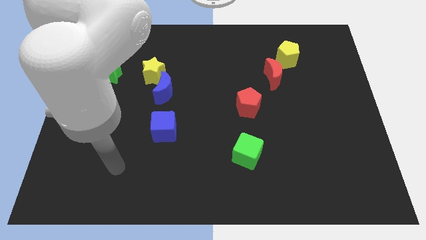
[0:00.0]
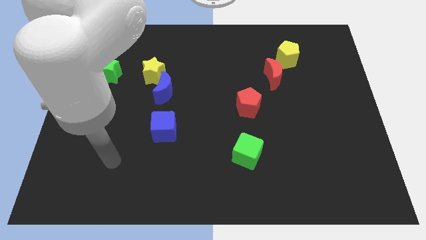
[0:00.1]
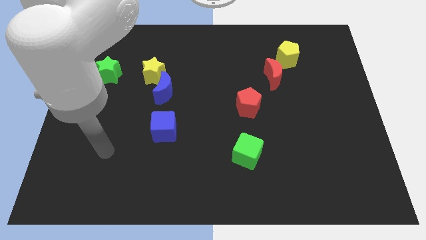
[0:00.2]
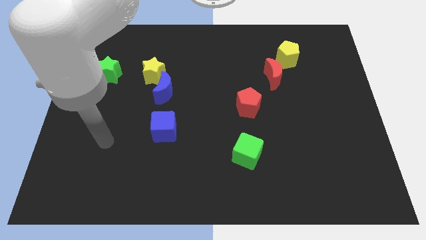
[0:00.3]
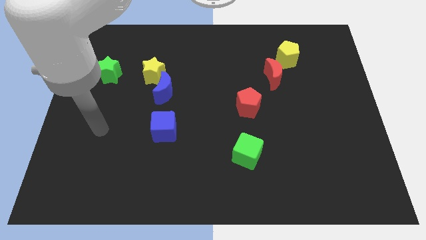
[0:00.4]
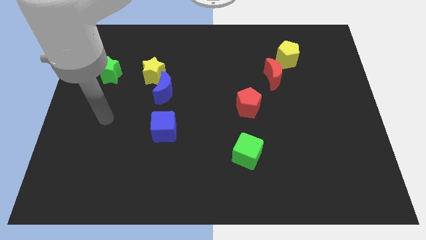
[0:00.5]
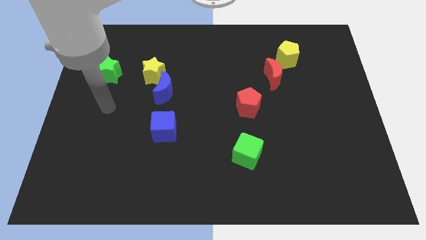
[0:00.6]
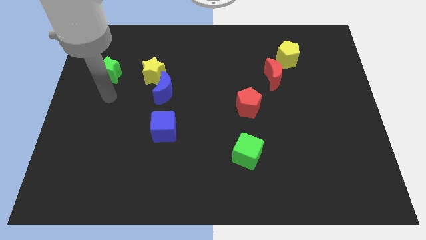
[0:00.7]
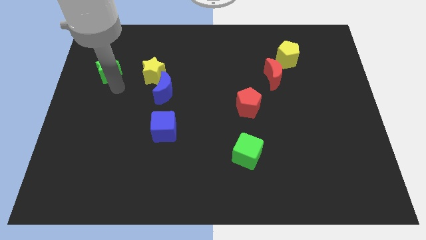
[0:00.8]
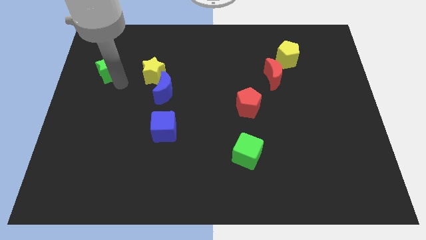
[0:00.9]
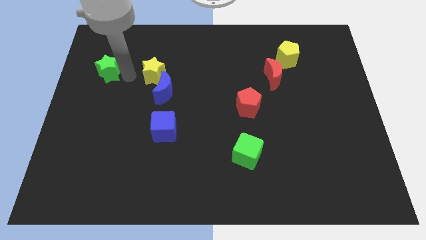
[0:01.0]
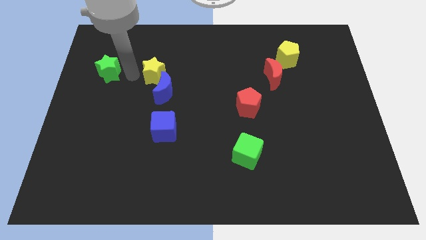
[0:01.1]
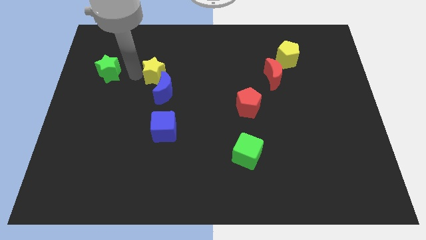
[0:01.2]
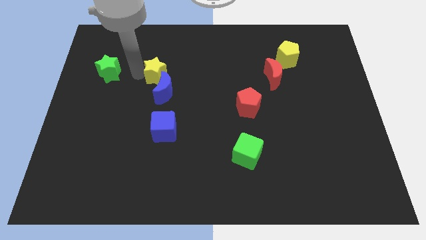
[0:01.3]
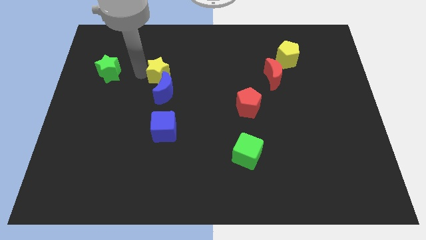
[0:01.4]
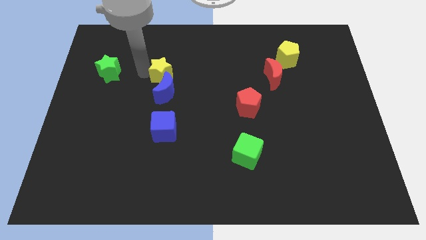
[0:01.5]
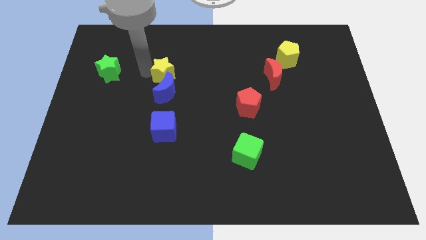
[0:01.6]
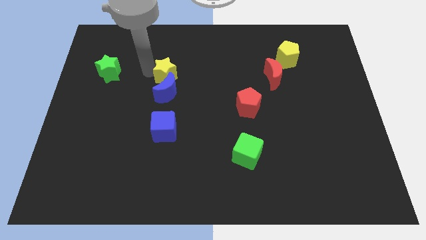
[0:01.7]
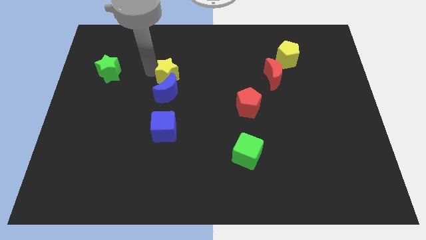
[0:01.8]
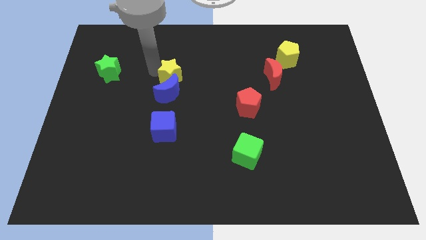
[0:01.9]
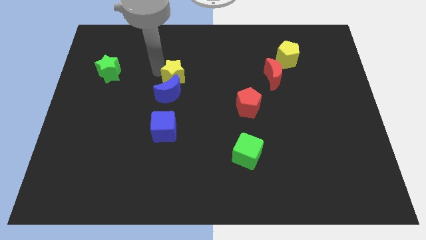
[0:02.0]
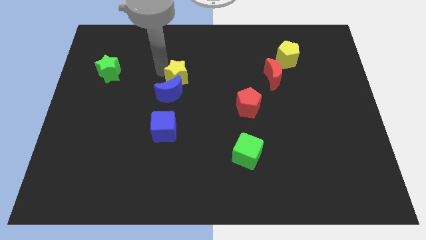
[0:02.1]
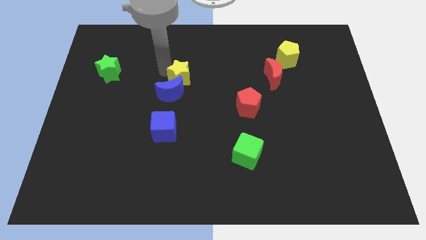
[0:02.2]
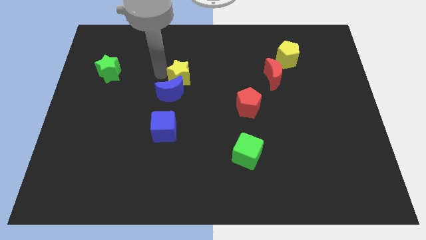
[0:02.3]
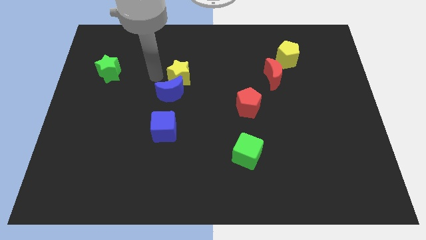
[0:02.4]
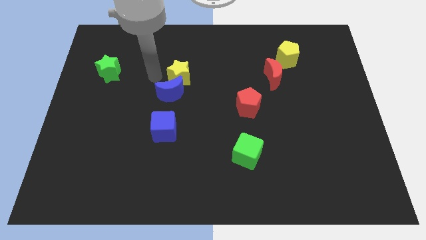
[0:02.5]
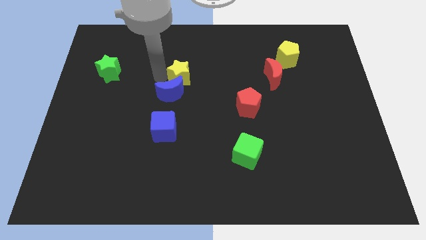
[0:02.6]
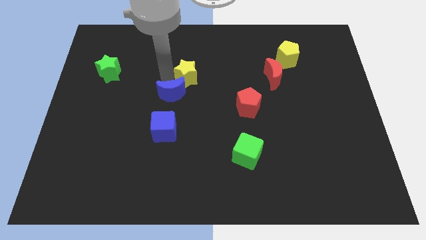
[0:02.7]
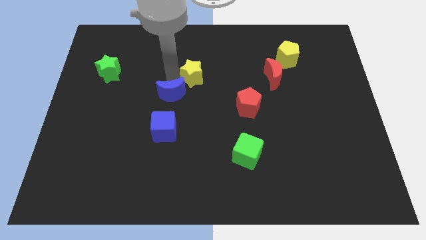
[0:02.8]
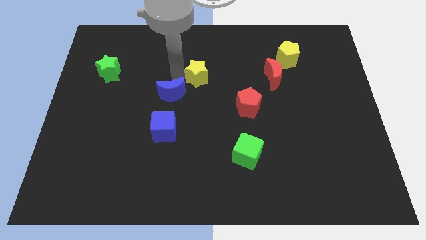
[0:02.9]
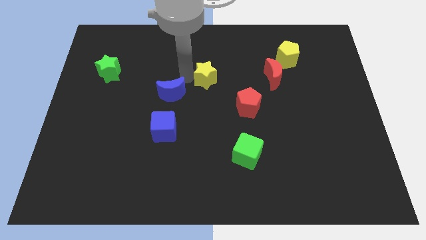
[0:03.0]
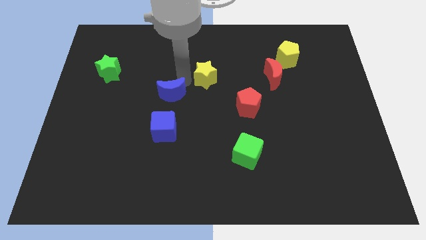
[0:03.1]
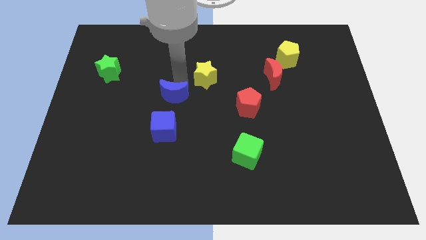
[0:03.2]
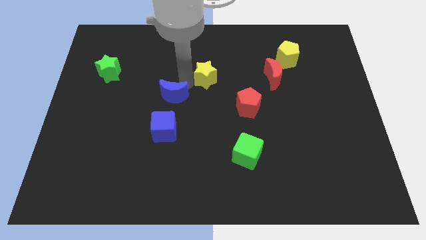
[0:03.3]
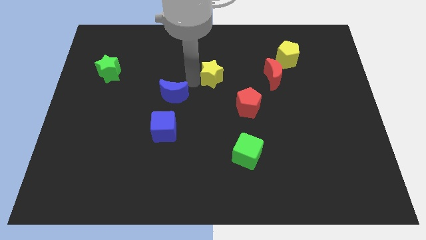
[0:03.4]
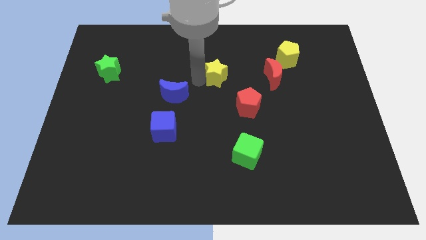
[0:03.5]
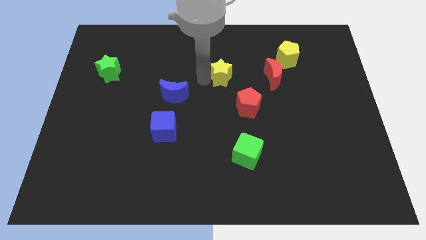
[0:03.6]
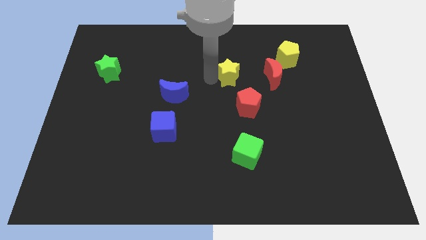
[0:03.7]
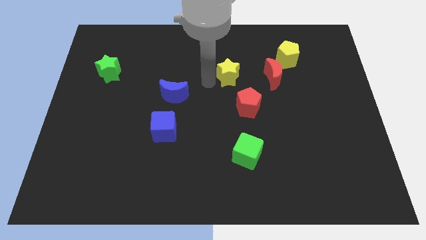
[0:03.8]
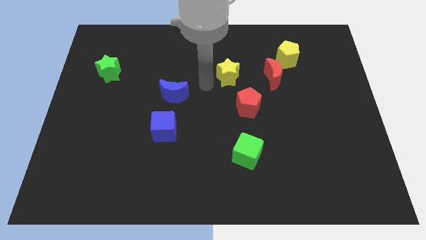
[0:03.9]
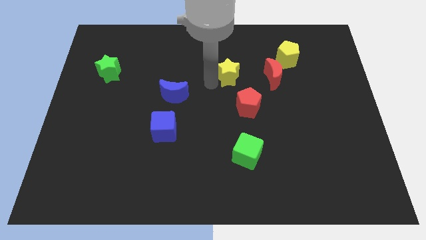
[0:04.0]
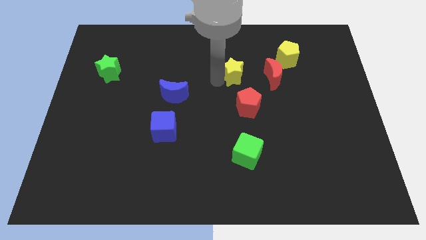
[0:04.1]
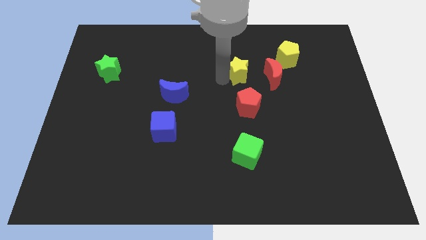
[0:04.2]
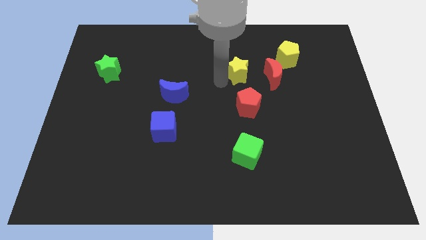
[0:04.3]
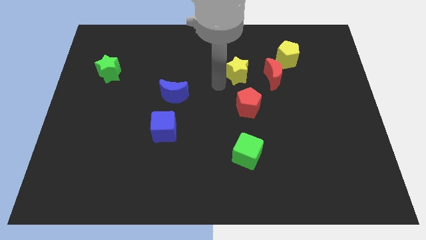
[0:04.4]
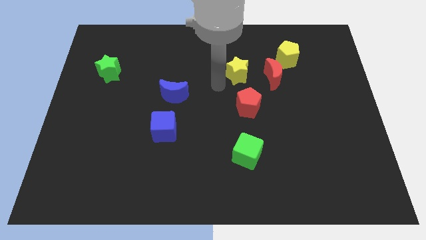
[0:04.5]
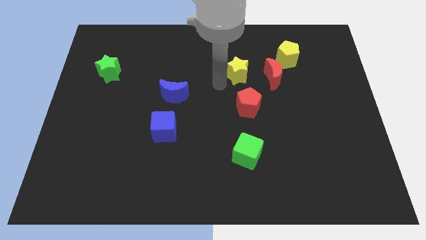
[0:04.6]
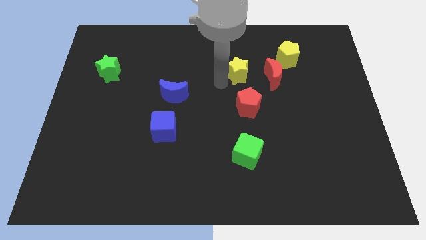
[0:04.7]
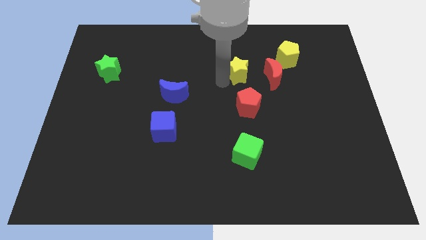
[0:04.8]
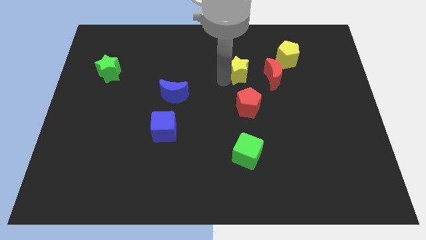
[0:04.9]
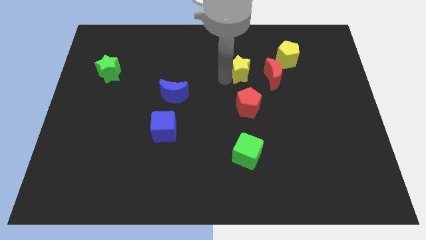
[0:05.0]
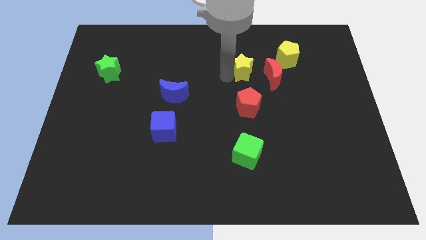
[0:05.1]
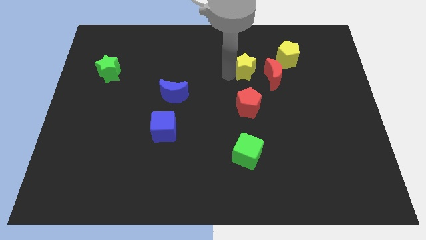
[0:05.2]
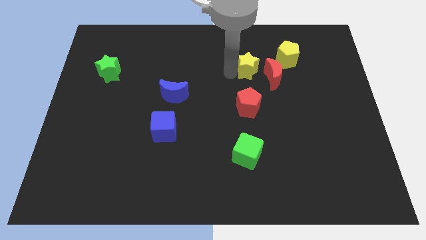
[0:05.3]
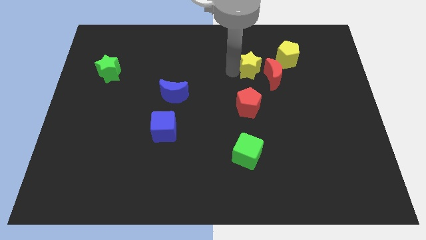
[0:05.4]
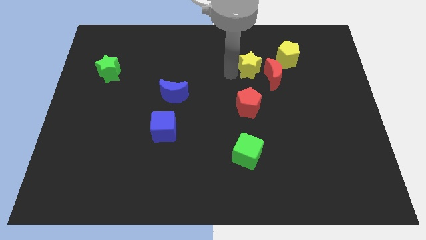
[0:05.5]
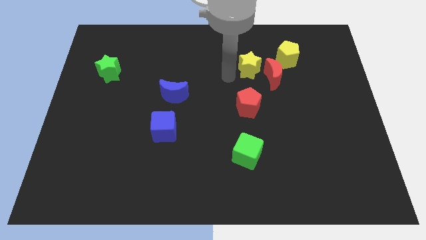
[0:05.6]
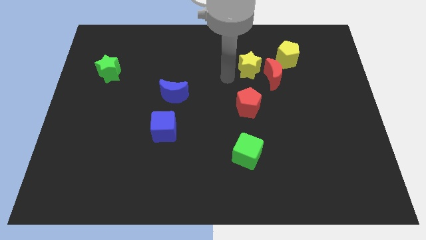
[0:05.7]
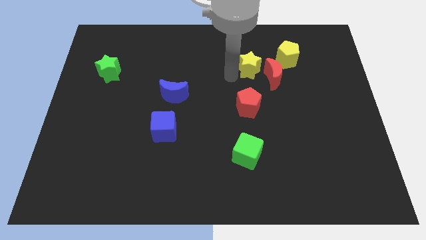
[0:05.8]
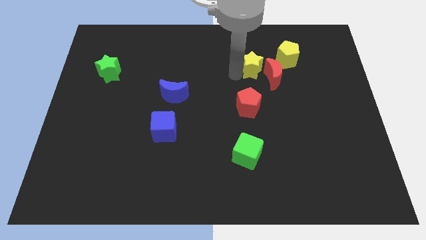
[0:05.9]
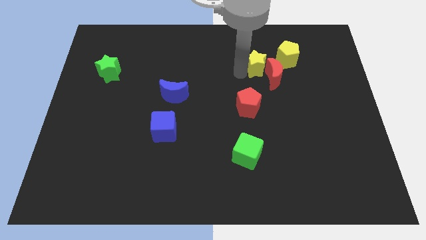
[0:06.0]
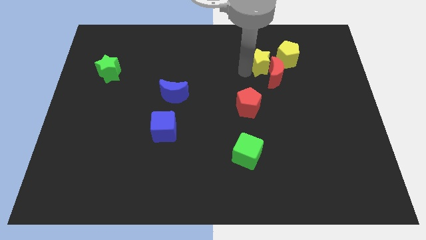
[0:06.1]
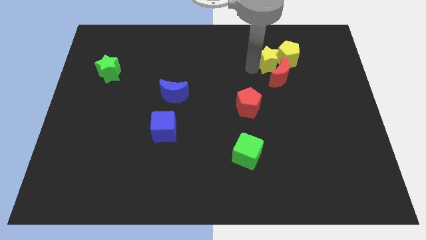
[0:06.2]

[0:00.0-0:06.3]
push the yellow star close to the yellow pentagon

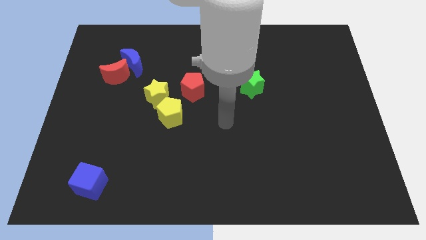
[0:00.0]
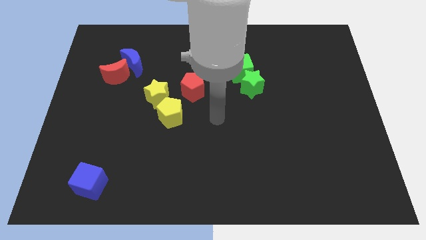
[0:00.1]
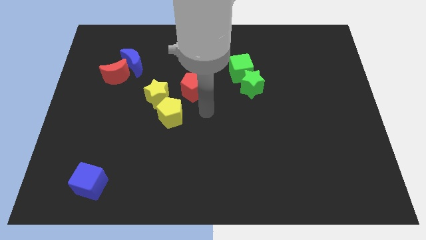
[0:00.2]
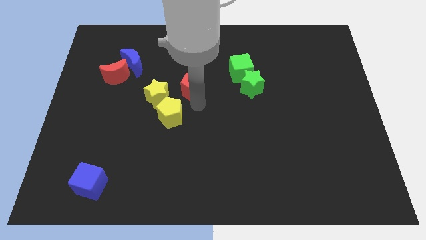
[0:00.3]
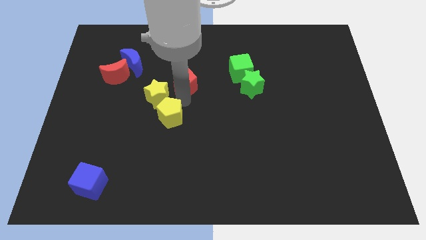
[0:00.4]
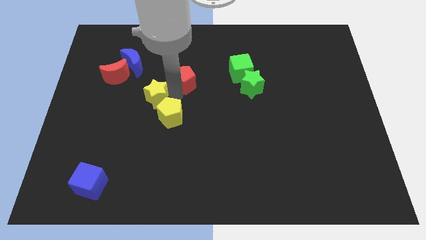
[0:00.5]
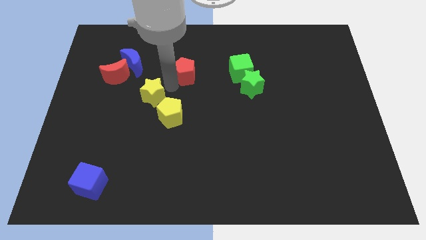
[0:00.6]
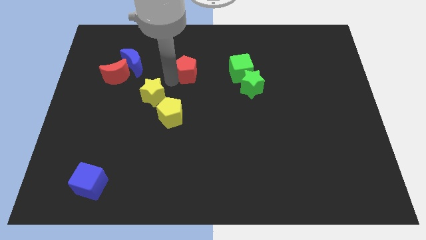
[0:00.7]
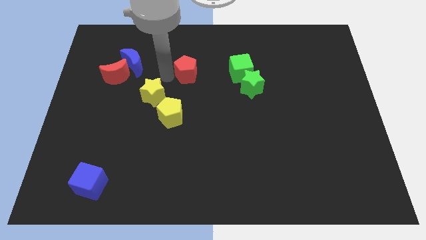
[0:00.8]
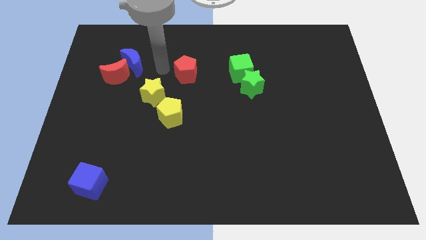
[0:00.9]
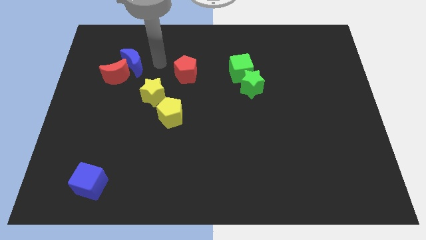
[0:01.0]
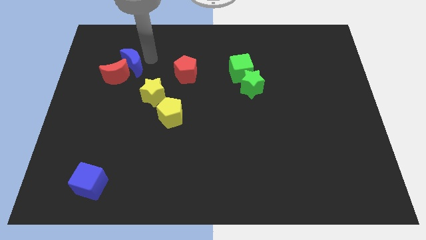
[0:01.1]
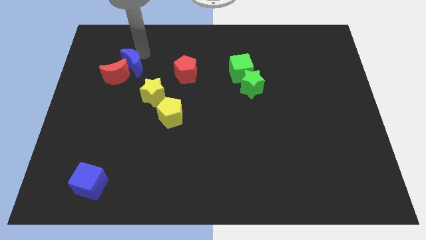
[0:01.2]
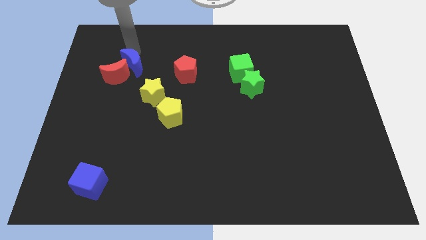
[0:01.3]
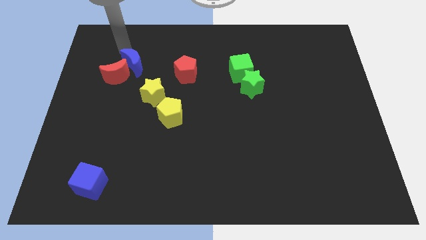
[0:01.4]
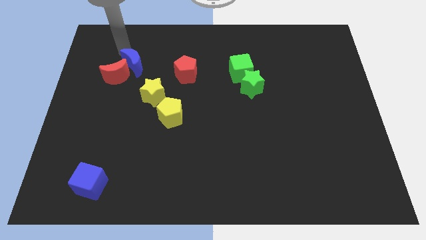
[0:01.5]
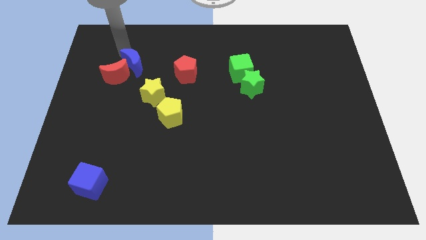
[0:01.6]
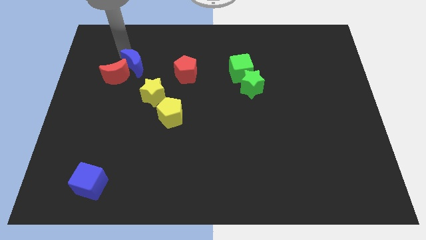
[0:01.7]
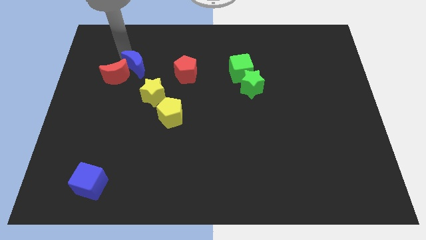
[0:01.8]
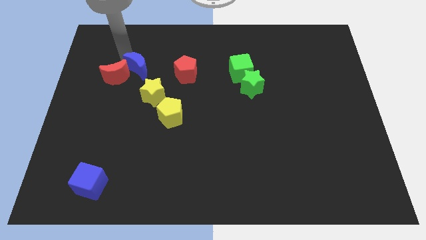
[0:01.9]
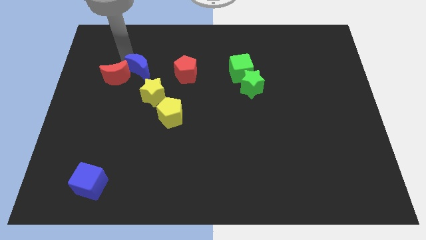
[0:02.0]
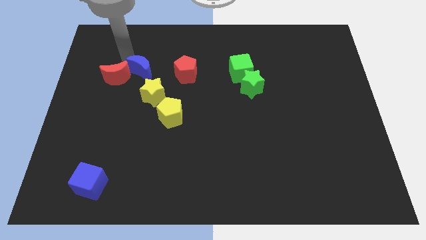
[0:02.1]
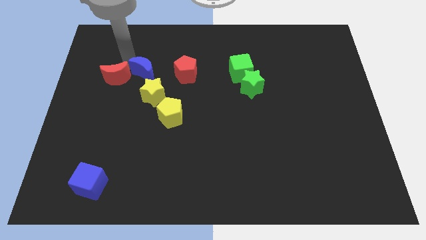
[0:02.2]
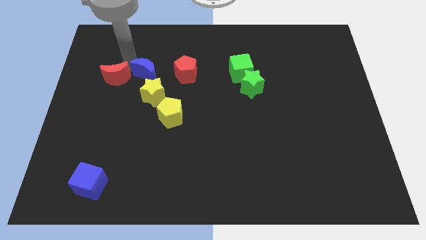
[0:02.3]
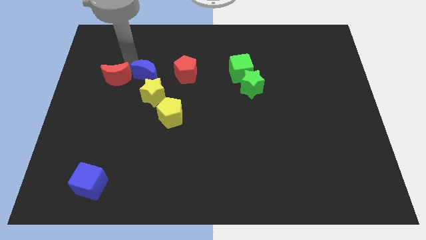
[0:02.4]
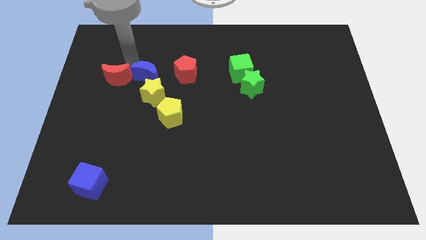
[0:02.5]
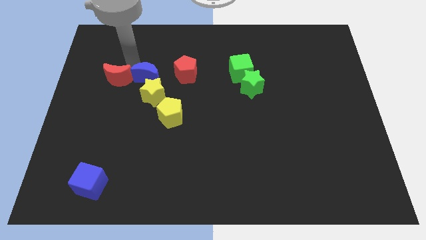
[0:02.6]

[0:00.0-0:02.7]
put the blue moon close to the yellow star
